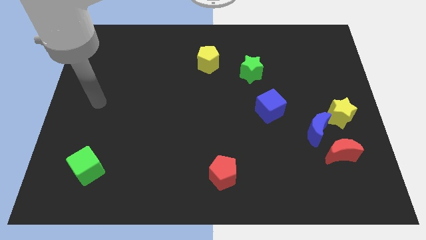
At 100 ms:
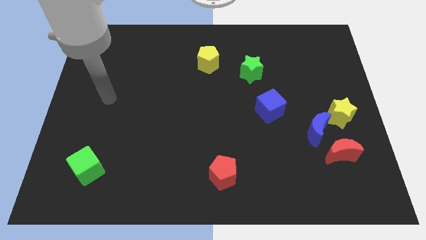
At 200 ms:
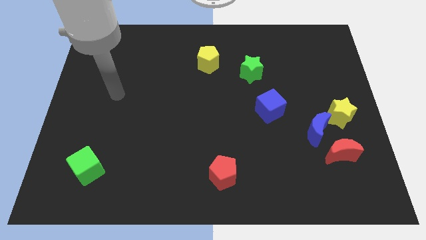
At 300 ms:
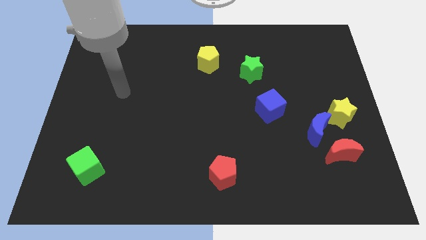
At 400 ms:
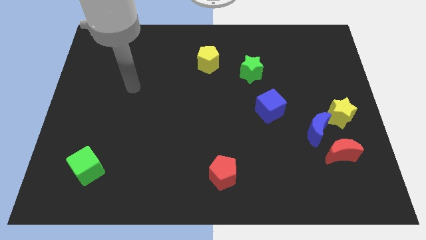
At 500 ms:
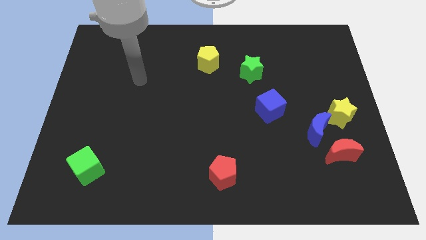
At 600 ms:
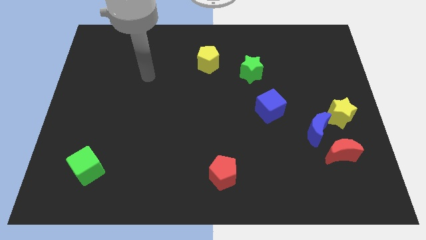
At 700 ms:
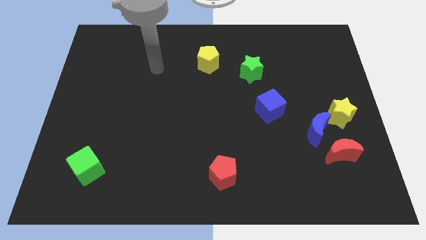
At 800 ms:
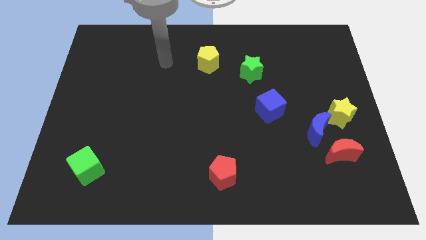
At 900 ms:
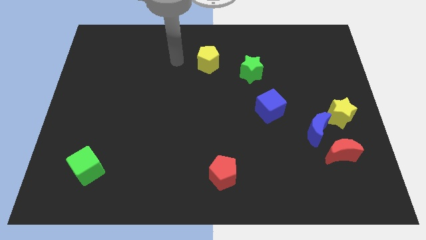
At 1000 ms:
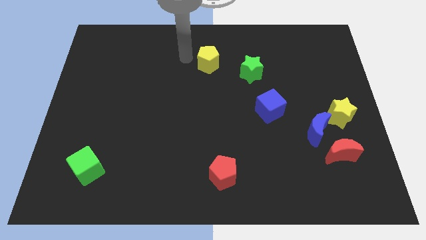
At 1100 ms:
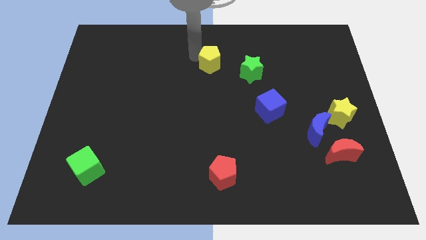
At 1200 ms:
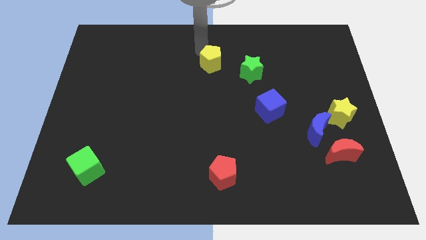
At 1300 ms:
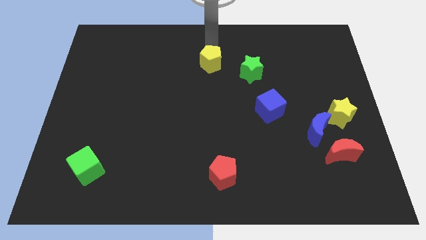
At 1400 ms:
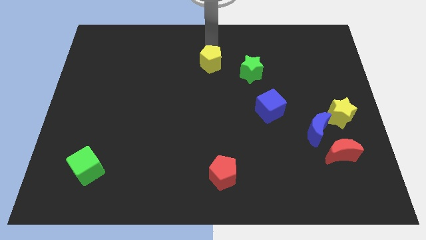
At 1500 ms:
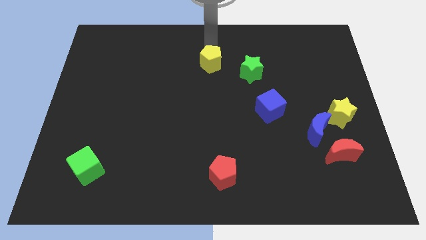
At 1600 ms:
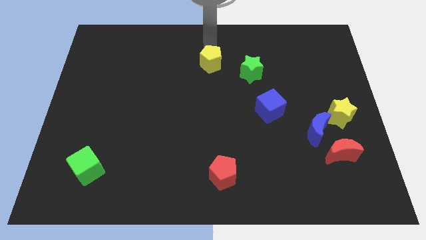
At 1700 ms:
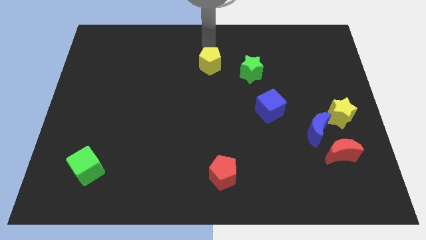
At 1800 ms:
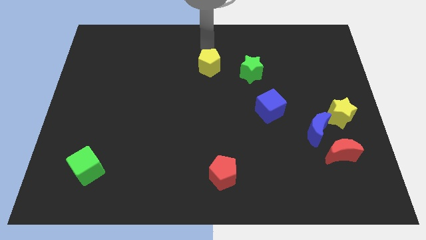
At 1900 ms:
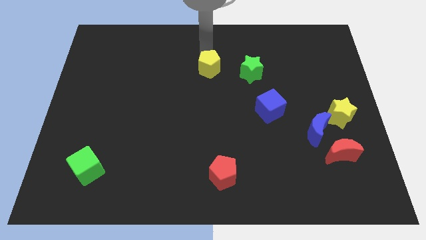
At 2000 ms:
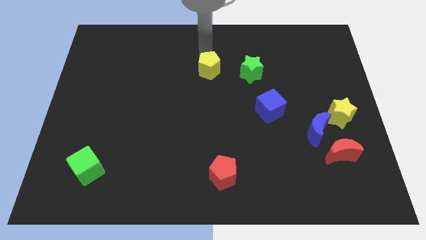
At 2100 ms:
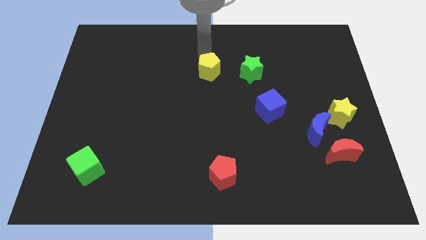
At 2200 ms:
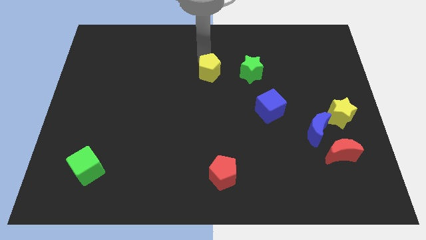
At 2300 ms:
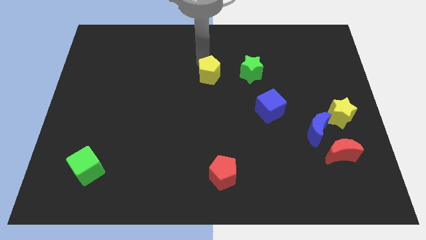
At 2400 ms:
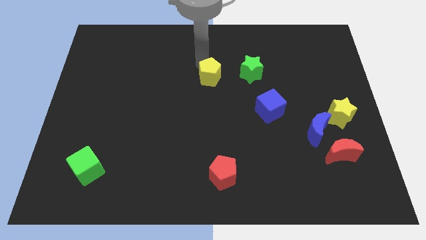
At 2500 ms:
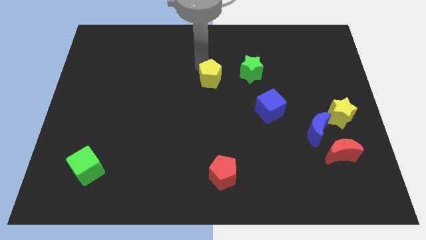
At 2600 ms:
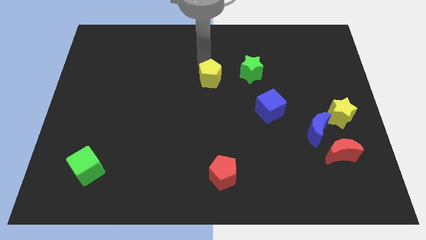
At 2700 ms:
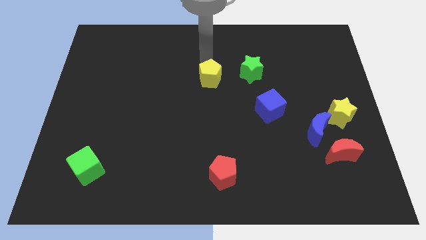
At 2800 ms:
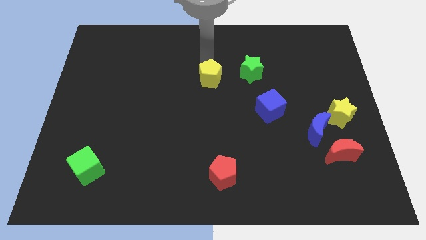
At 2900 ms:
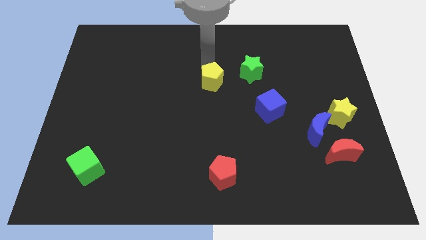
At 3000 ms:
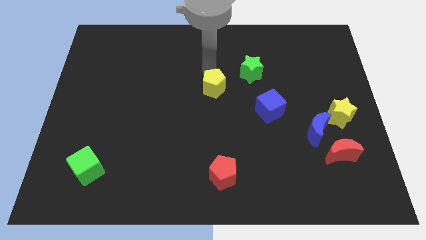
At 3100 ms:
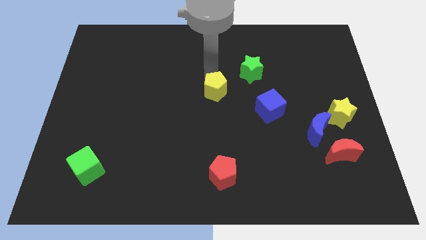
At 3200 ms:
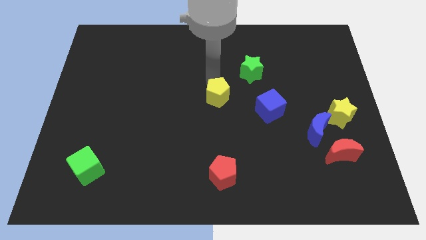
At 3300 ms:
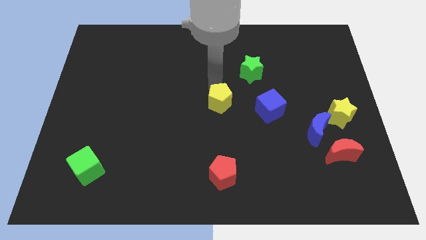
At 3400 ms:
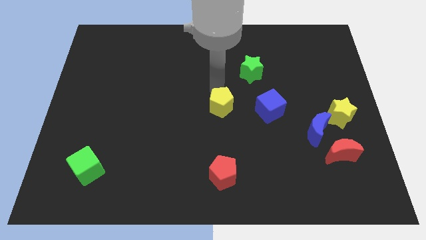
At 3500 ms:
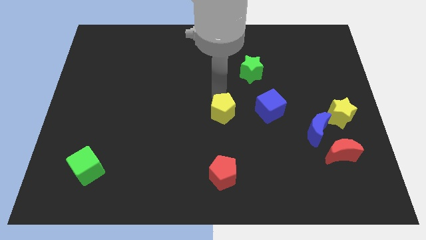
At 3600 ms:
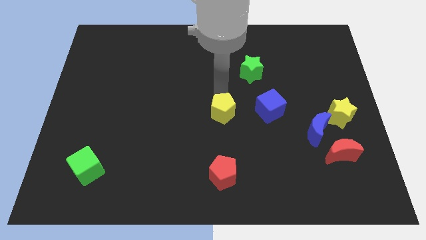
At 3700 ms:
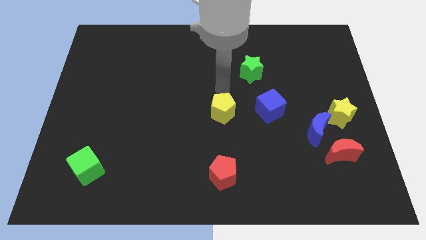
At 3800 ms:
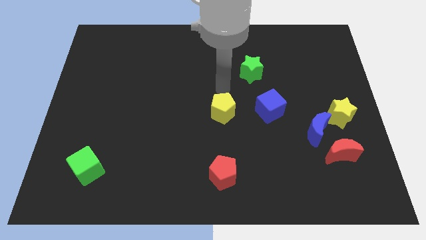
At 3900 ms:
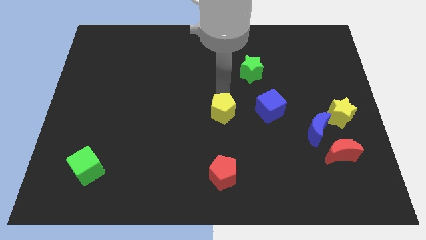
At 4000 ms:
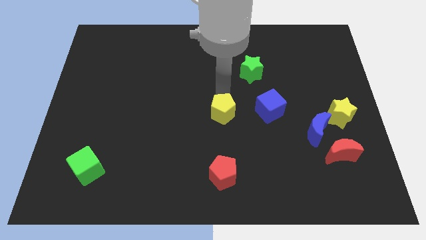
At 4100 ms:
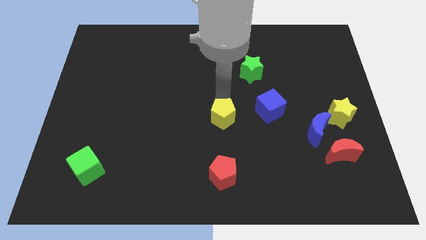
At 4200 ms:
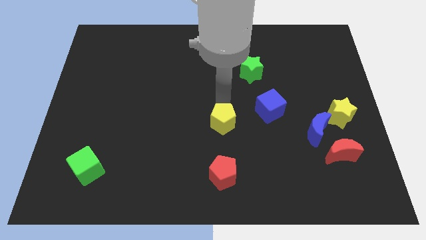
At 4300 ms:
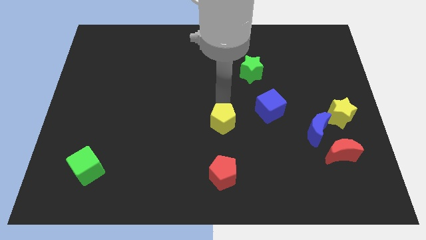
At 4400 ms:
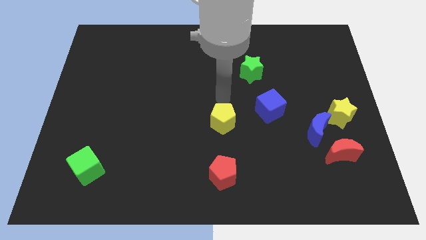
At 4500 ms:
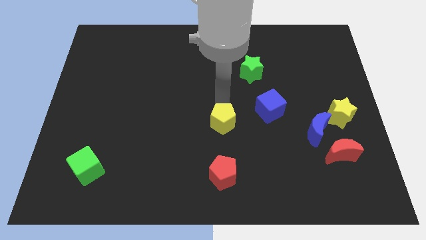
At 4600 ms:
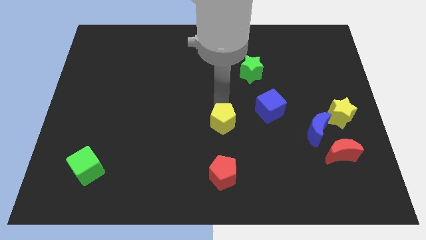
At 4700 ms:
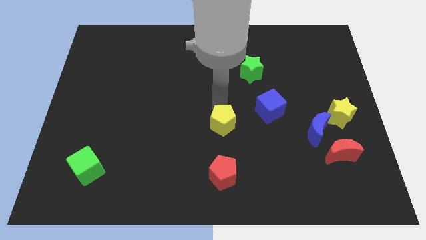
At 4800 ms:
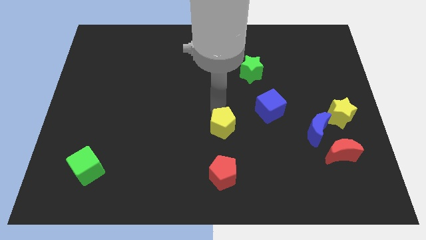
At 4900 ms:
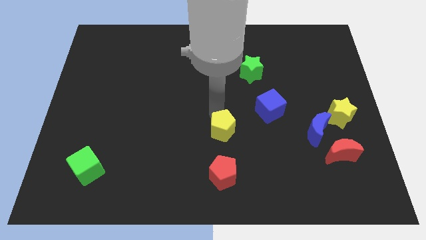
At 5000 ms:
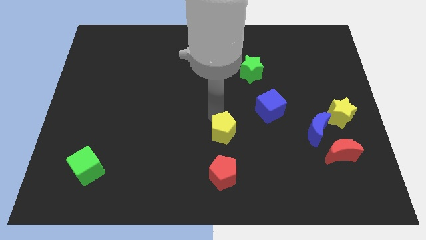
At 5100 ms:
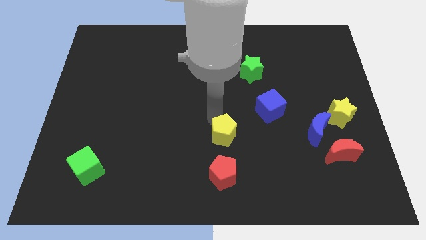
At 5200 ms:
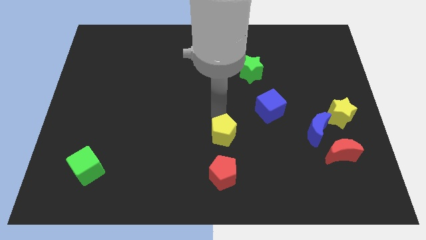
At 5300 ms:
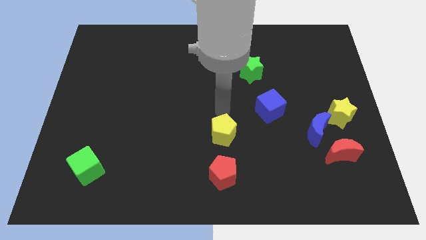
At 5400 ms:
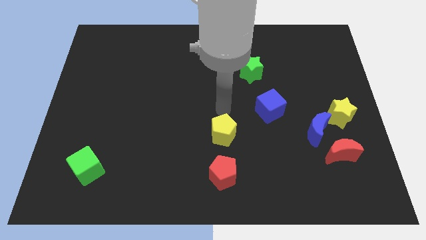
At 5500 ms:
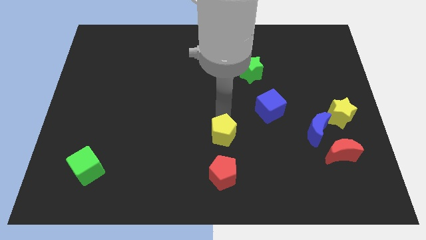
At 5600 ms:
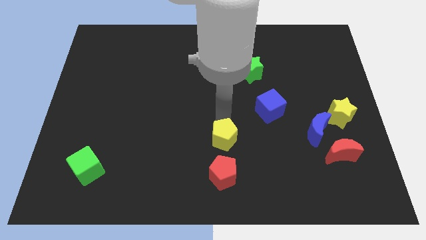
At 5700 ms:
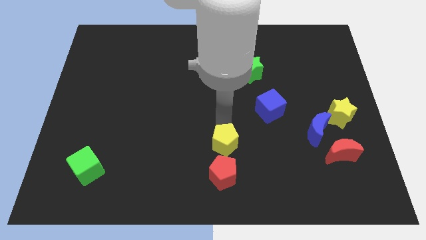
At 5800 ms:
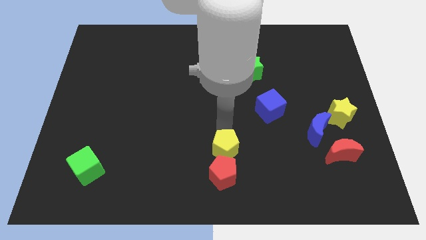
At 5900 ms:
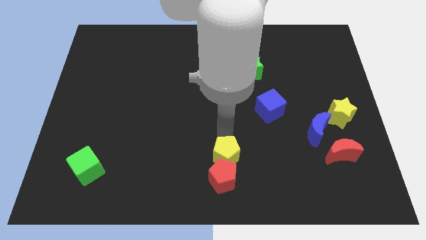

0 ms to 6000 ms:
move the yellow pentagon towards the red pentagon

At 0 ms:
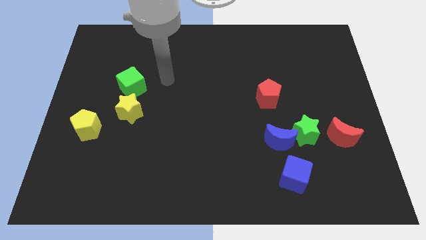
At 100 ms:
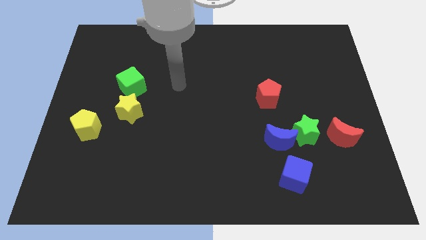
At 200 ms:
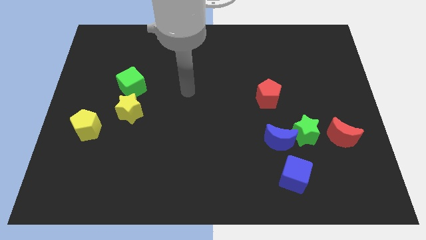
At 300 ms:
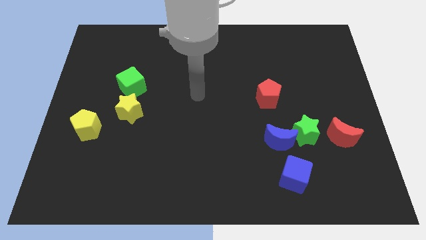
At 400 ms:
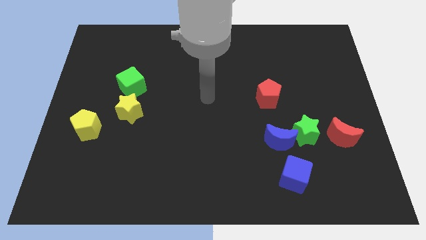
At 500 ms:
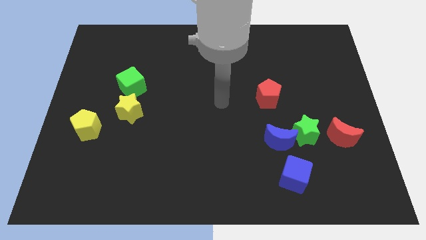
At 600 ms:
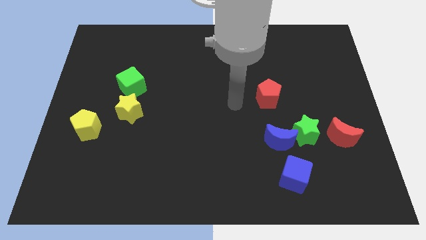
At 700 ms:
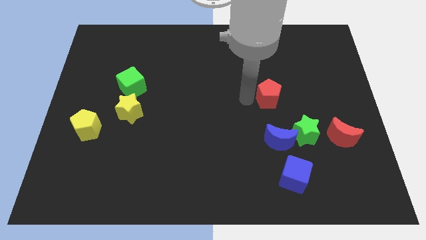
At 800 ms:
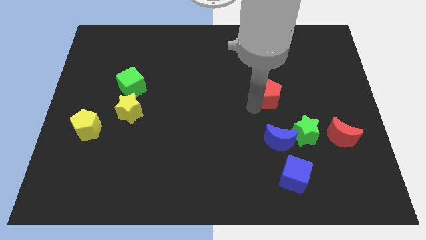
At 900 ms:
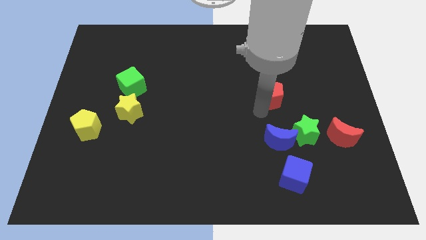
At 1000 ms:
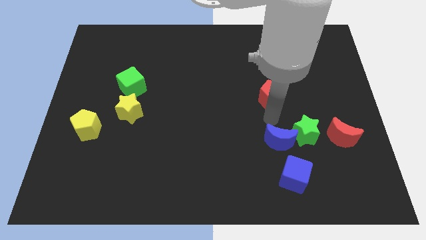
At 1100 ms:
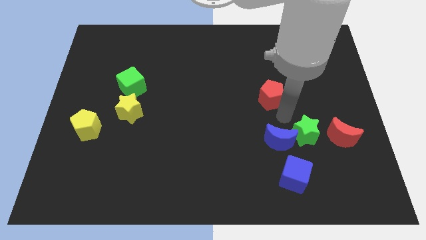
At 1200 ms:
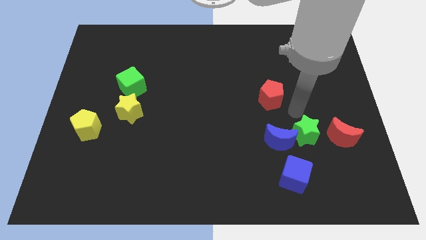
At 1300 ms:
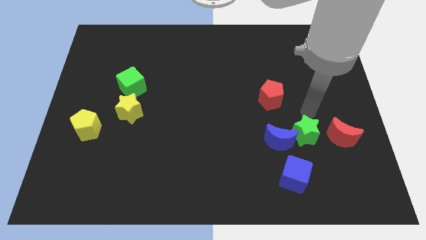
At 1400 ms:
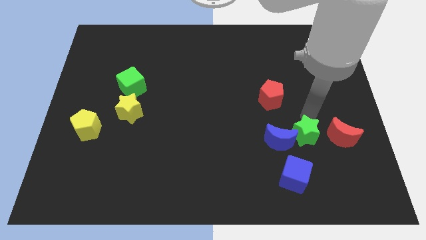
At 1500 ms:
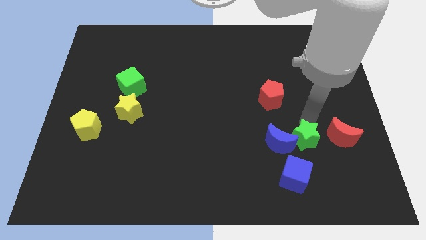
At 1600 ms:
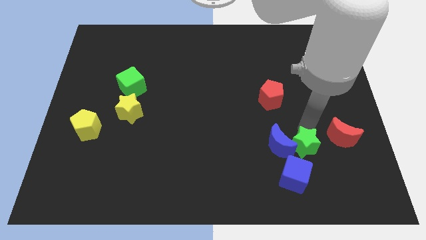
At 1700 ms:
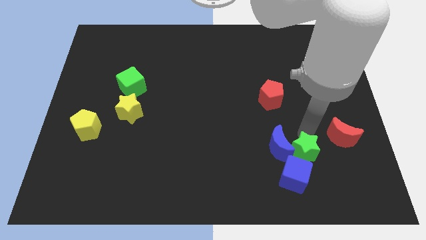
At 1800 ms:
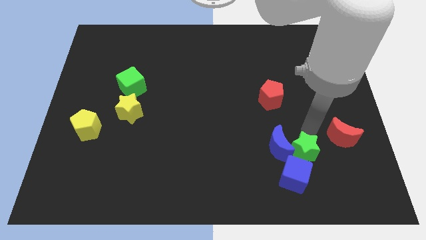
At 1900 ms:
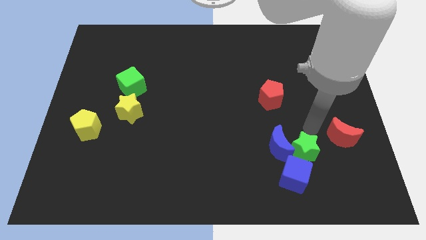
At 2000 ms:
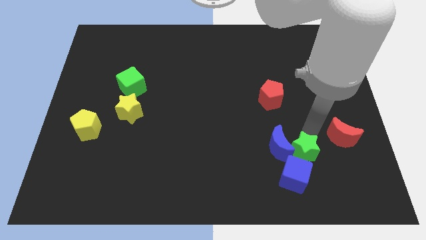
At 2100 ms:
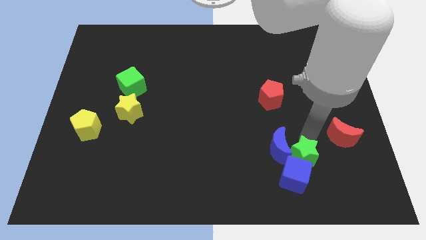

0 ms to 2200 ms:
put the green star next to the blue cube
